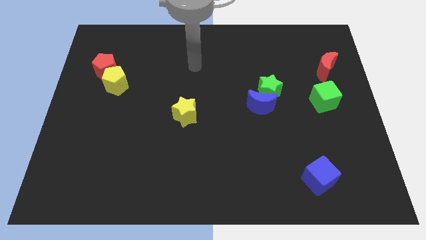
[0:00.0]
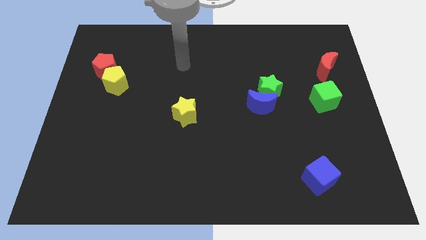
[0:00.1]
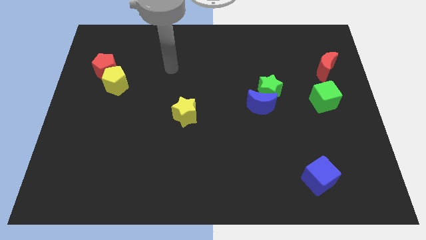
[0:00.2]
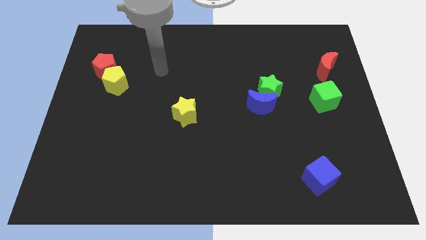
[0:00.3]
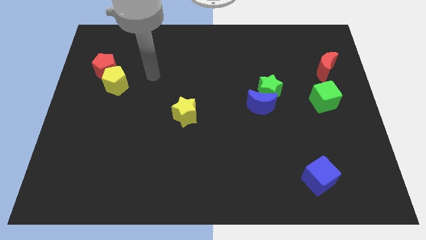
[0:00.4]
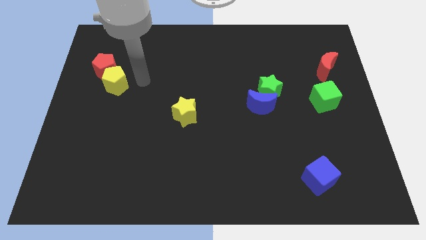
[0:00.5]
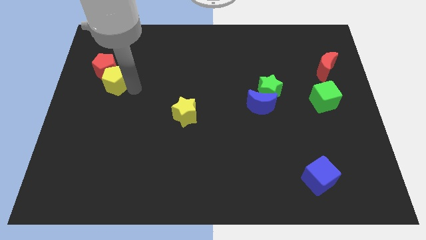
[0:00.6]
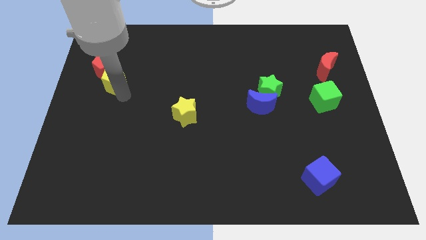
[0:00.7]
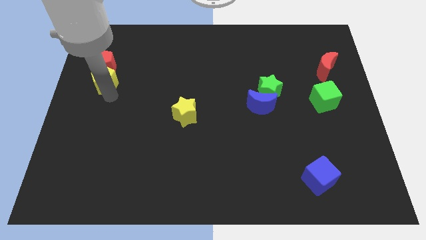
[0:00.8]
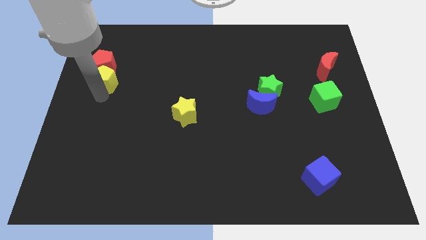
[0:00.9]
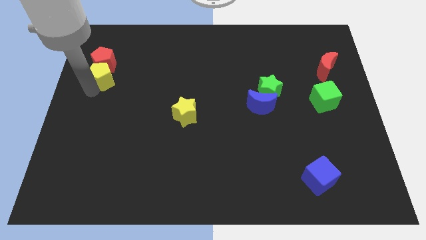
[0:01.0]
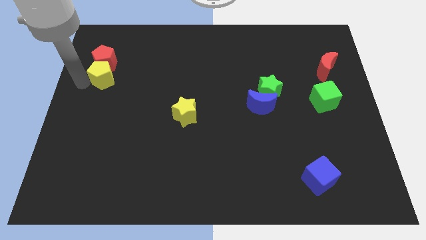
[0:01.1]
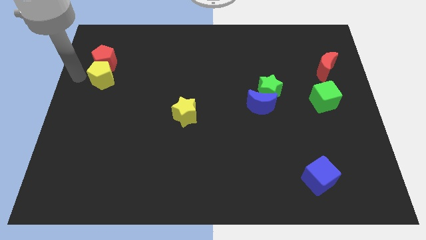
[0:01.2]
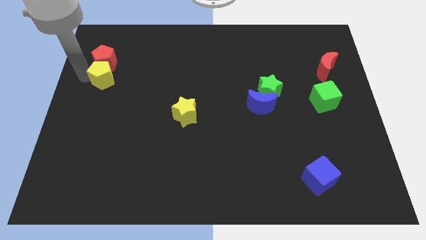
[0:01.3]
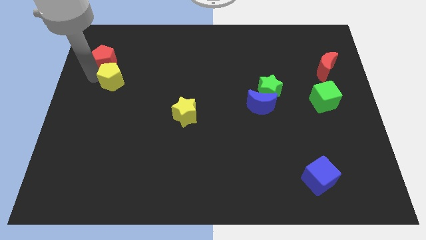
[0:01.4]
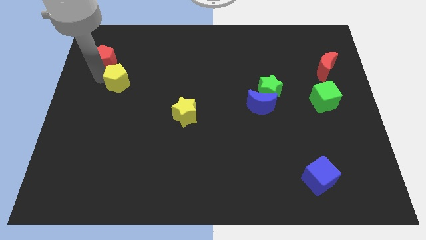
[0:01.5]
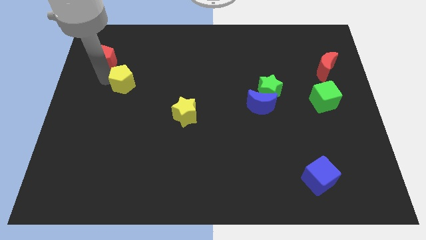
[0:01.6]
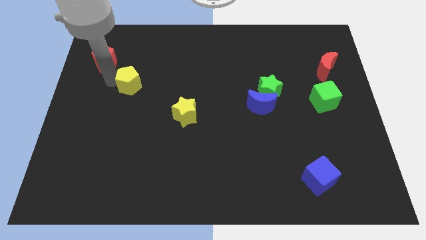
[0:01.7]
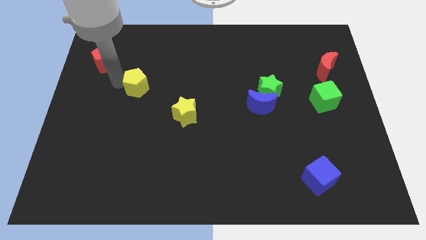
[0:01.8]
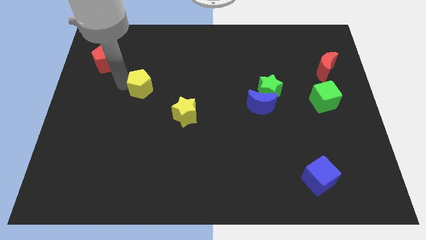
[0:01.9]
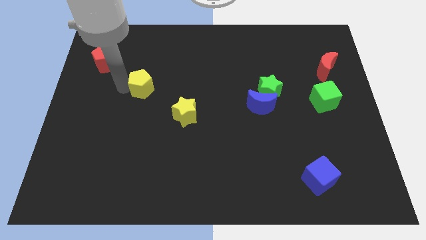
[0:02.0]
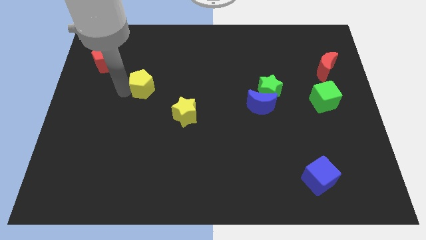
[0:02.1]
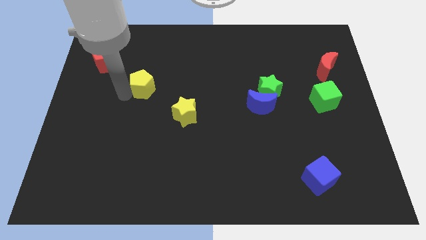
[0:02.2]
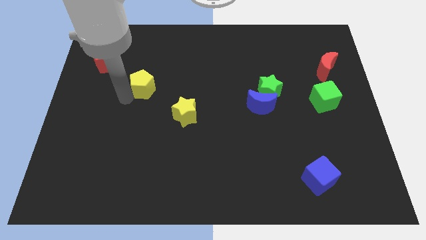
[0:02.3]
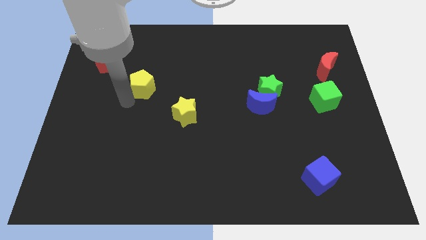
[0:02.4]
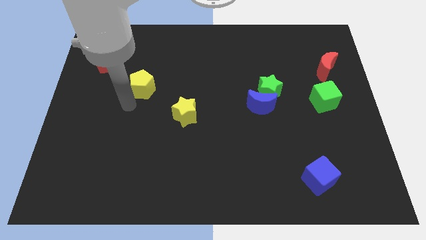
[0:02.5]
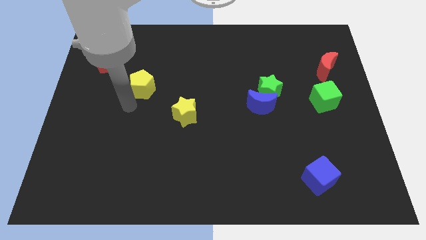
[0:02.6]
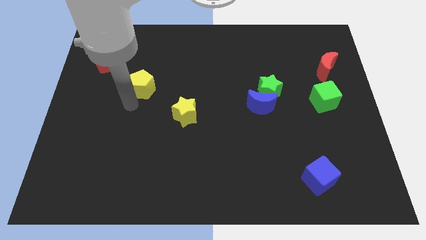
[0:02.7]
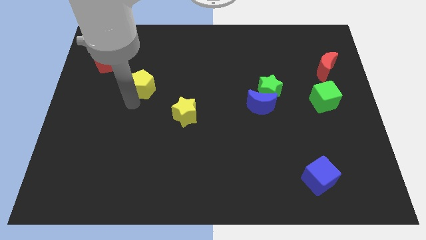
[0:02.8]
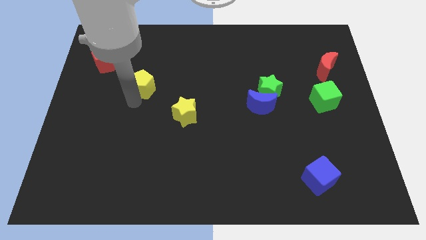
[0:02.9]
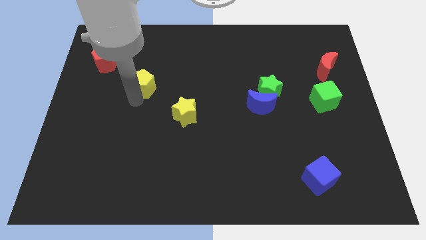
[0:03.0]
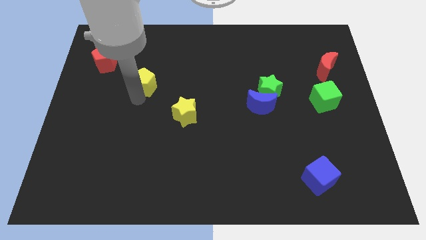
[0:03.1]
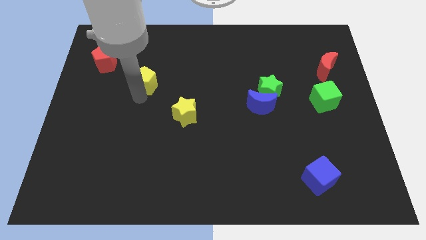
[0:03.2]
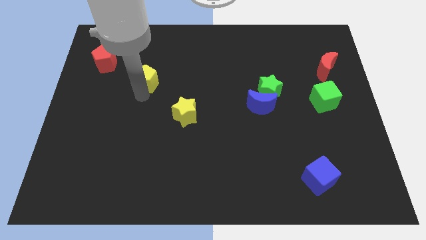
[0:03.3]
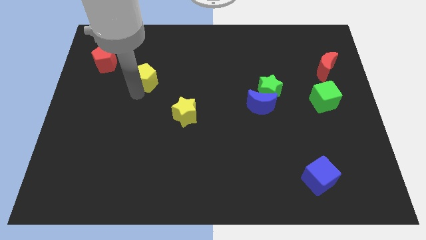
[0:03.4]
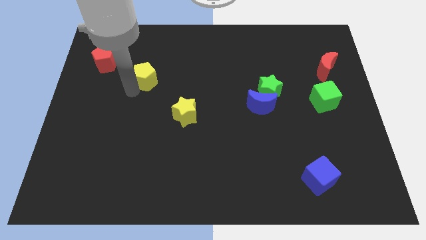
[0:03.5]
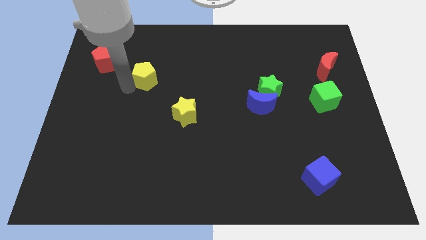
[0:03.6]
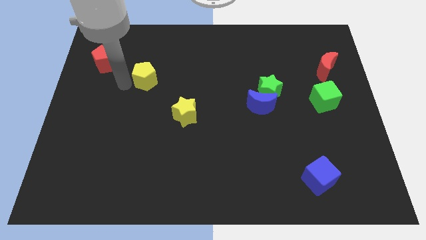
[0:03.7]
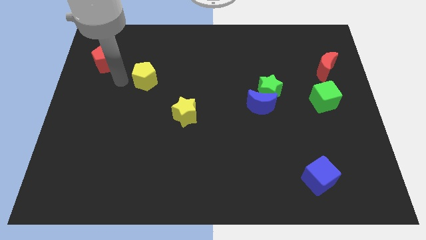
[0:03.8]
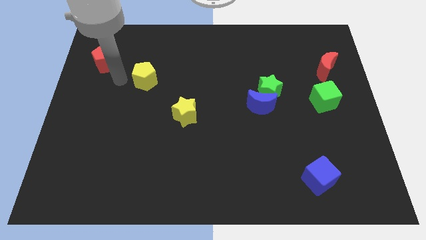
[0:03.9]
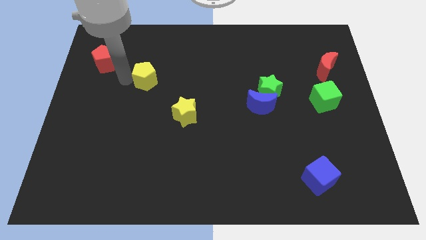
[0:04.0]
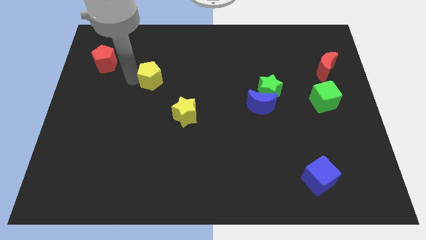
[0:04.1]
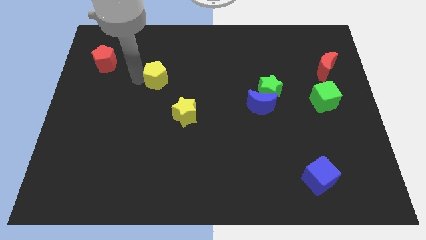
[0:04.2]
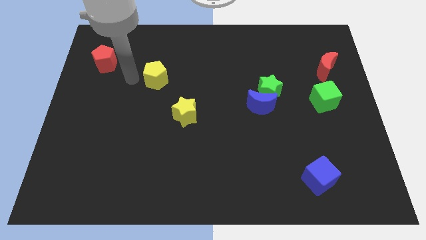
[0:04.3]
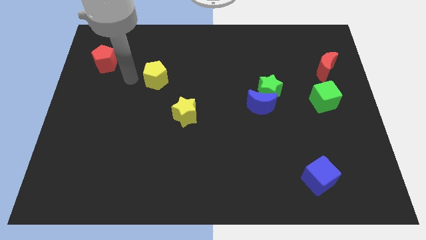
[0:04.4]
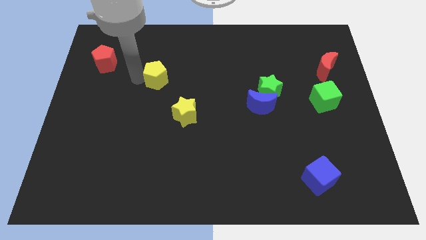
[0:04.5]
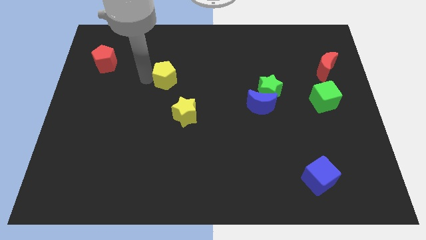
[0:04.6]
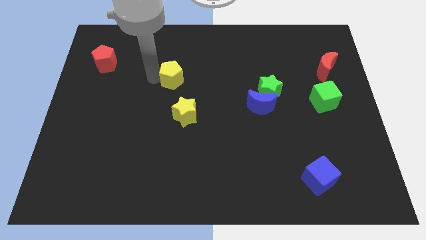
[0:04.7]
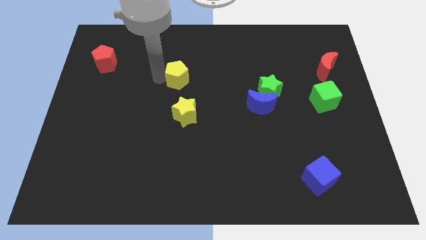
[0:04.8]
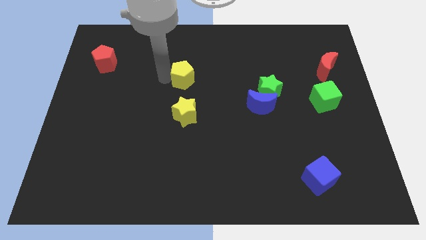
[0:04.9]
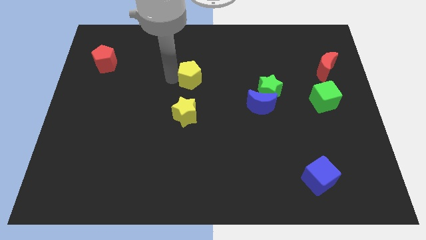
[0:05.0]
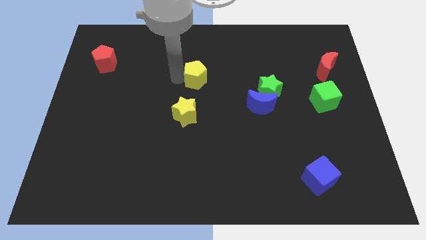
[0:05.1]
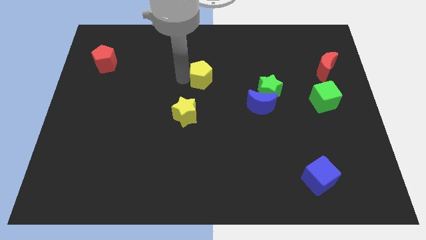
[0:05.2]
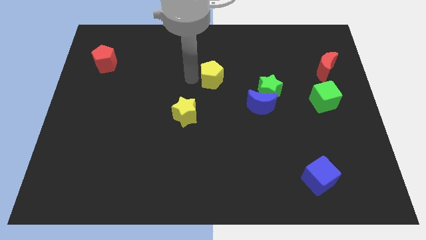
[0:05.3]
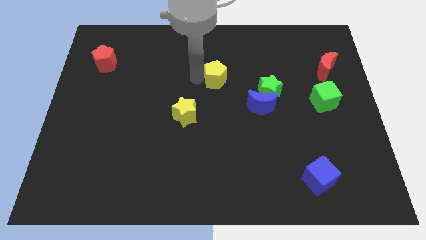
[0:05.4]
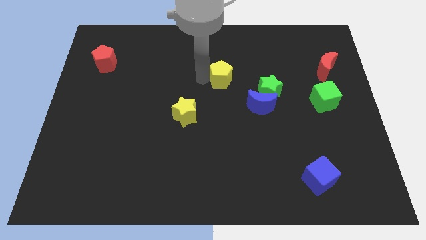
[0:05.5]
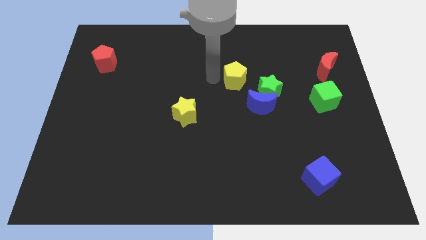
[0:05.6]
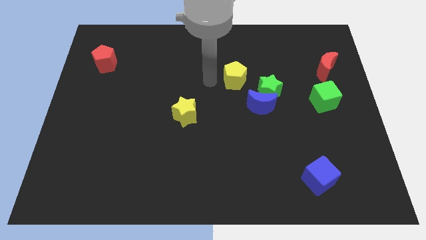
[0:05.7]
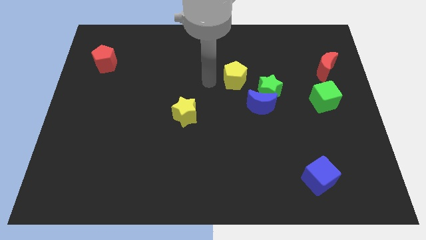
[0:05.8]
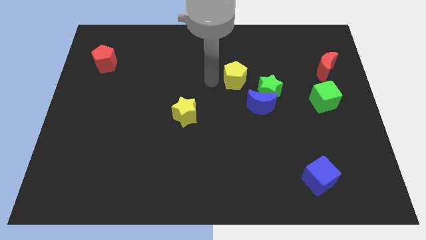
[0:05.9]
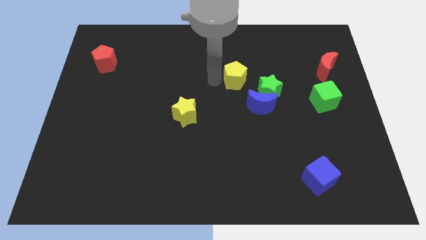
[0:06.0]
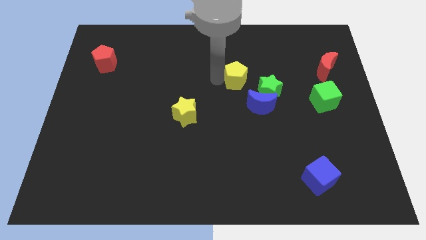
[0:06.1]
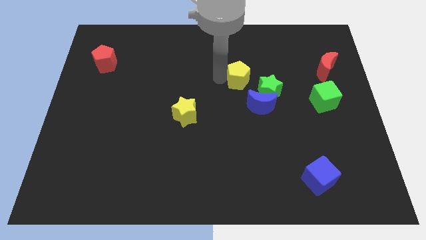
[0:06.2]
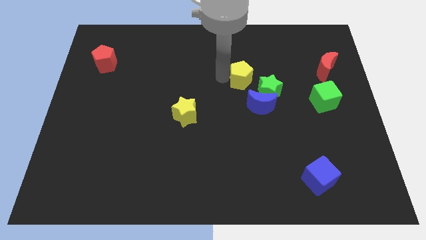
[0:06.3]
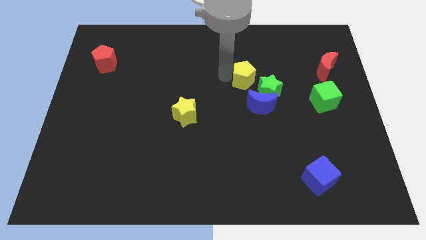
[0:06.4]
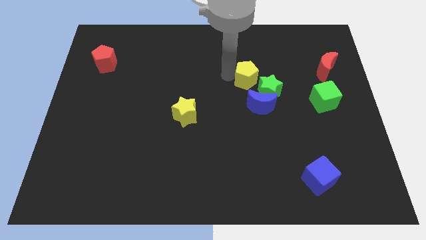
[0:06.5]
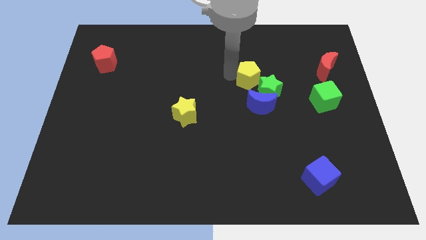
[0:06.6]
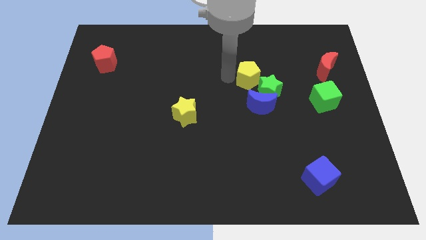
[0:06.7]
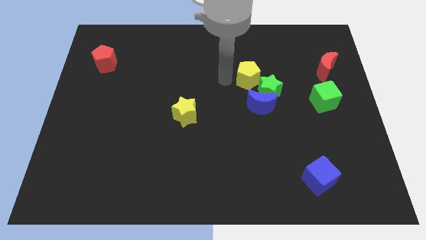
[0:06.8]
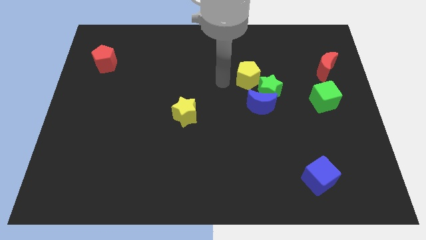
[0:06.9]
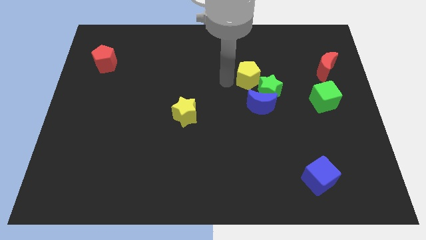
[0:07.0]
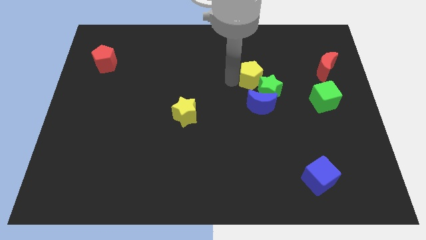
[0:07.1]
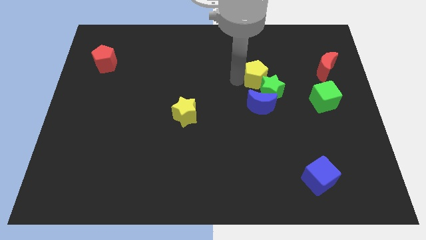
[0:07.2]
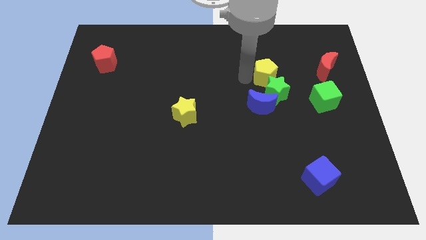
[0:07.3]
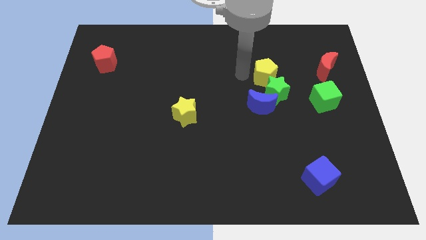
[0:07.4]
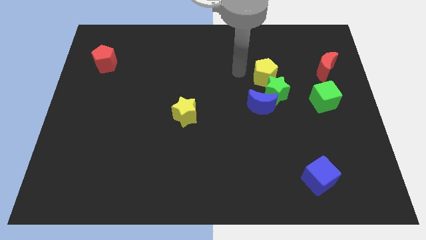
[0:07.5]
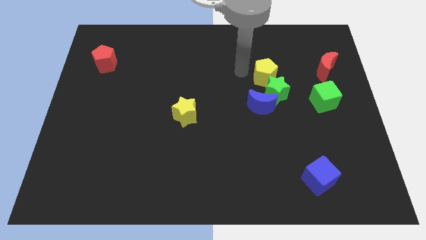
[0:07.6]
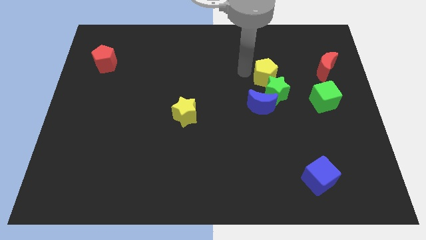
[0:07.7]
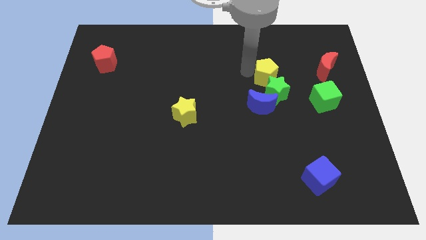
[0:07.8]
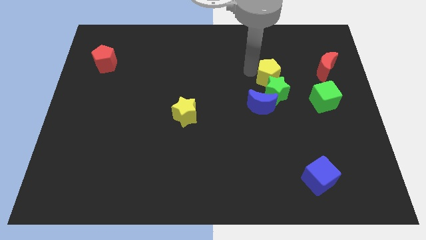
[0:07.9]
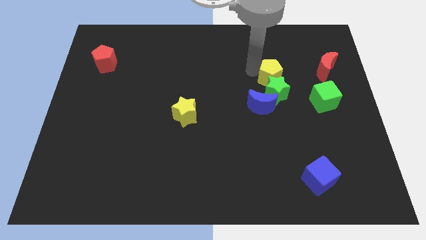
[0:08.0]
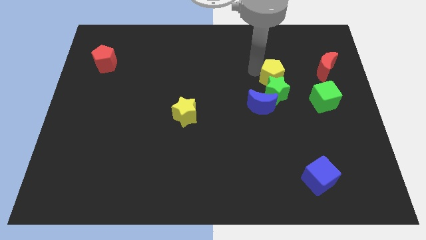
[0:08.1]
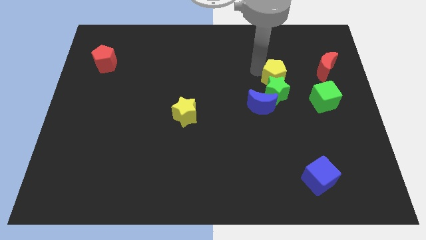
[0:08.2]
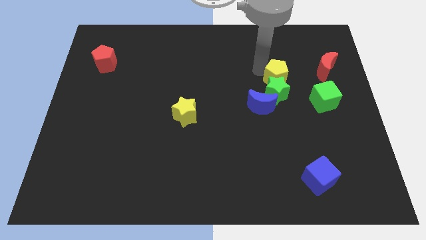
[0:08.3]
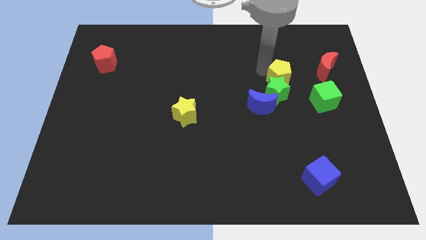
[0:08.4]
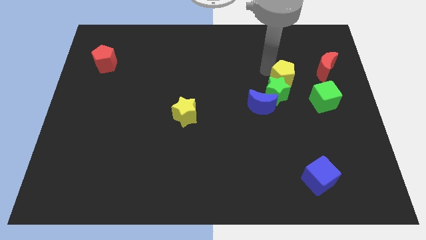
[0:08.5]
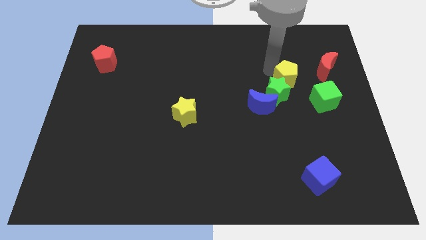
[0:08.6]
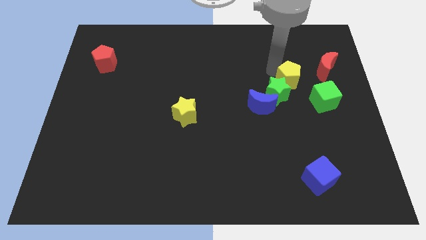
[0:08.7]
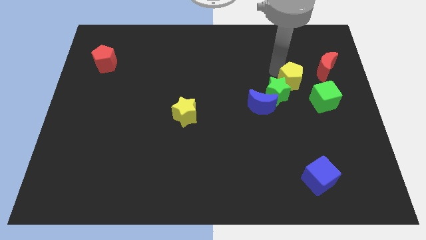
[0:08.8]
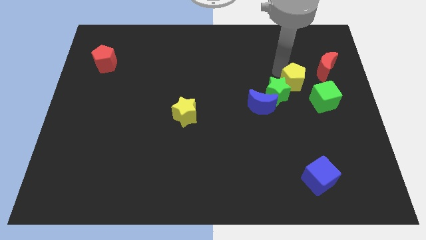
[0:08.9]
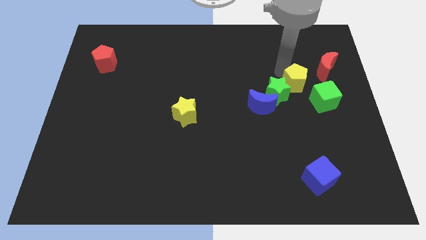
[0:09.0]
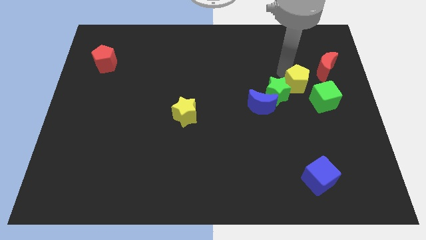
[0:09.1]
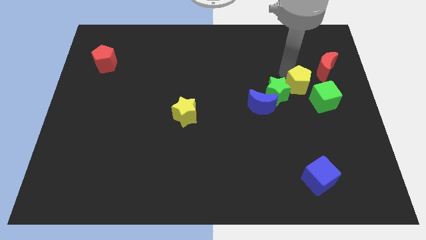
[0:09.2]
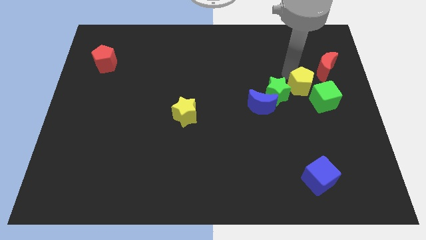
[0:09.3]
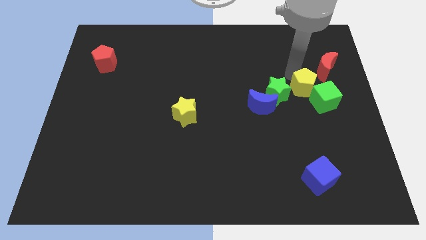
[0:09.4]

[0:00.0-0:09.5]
move the yellow pentagon next to the green cube
